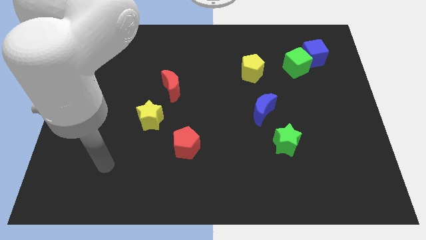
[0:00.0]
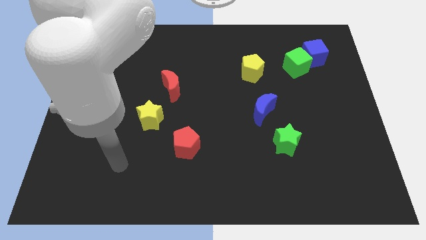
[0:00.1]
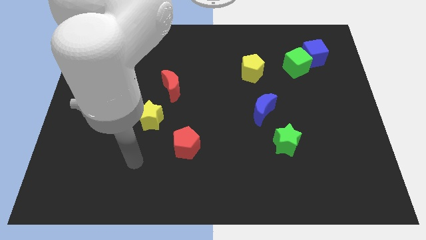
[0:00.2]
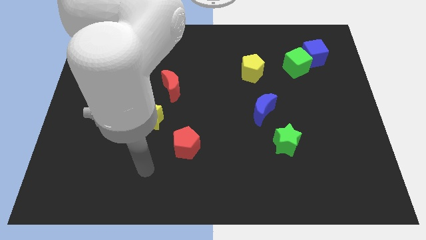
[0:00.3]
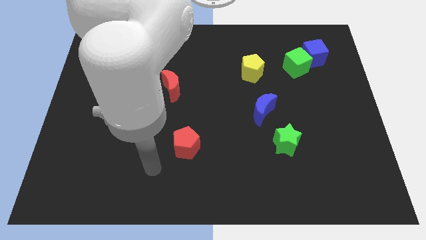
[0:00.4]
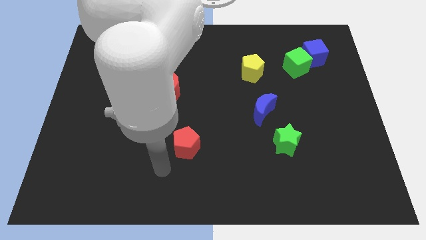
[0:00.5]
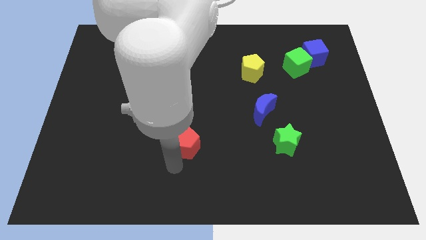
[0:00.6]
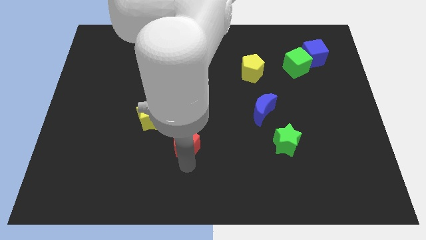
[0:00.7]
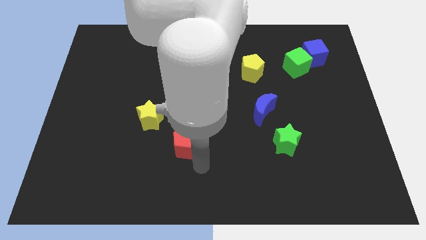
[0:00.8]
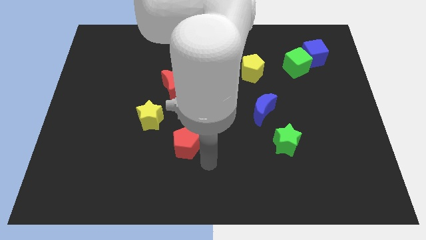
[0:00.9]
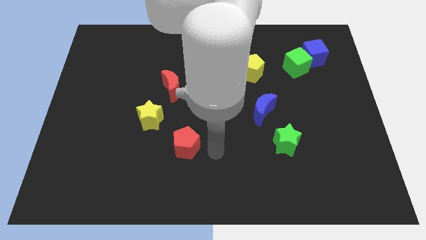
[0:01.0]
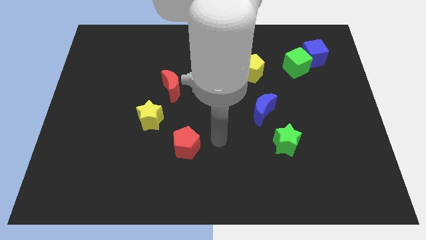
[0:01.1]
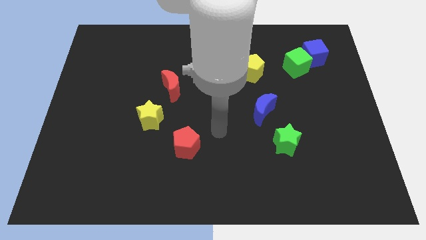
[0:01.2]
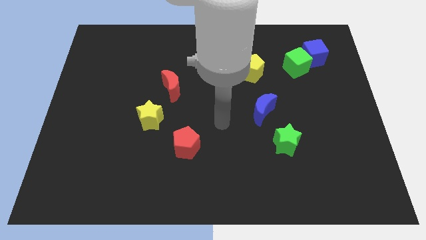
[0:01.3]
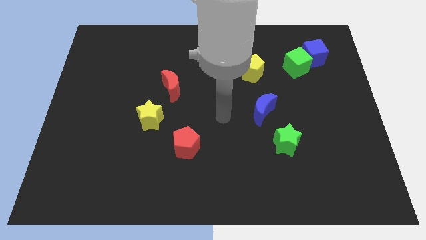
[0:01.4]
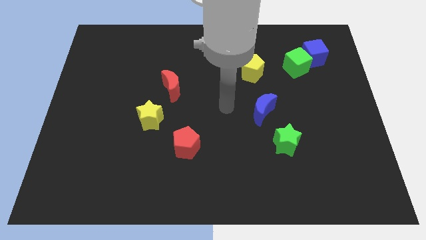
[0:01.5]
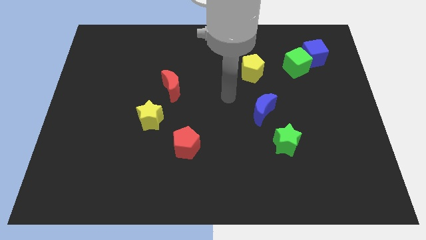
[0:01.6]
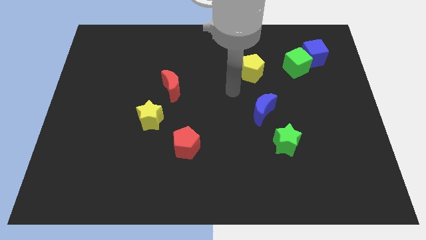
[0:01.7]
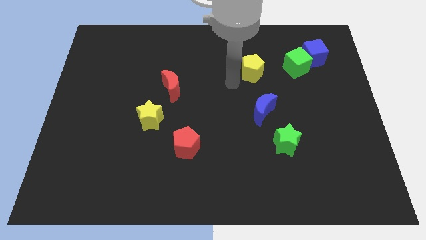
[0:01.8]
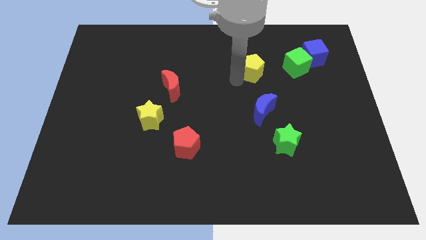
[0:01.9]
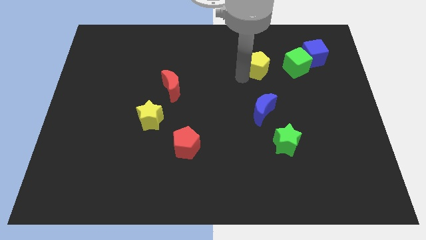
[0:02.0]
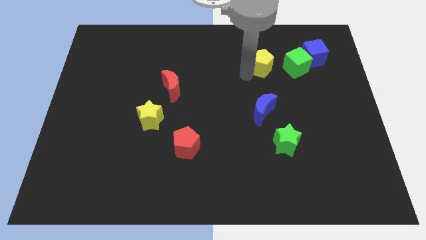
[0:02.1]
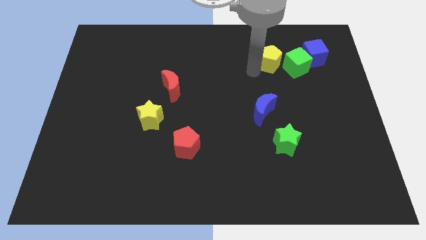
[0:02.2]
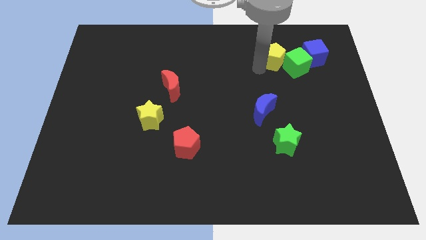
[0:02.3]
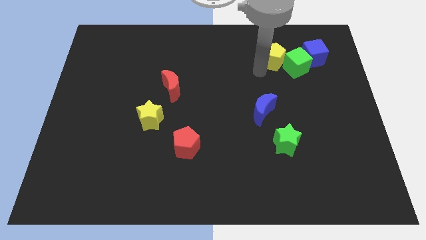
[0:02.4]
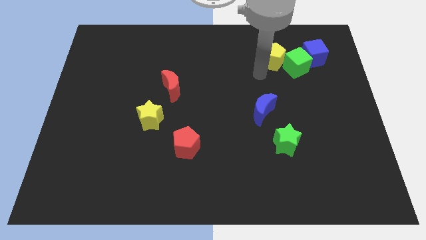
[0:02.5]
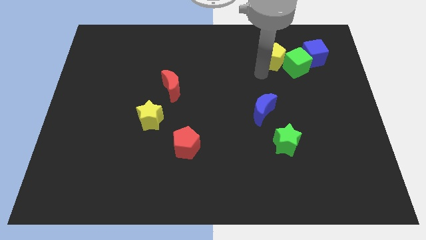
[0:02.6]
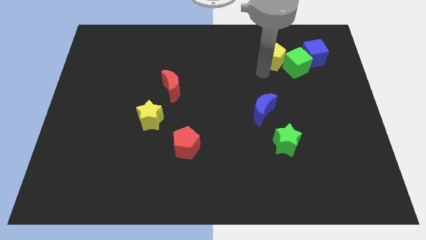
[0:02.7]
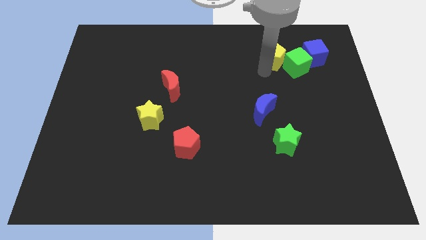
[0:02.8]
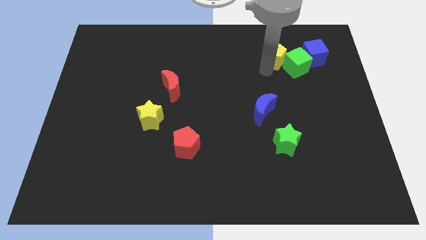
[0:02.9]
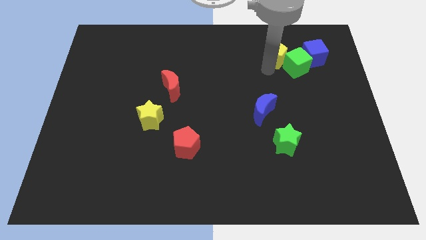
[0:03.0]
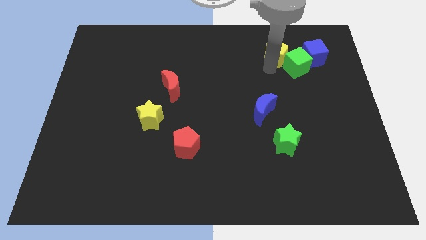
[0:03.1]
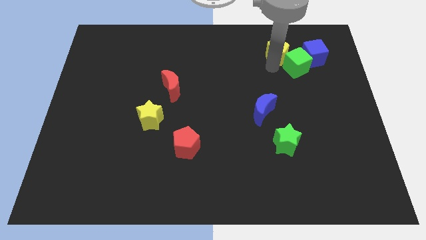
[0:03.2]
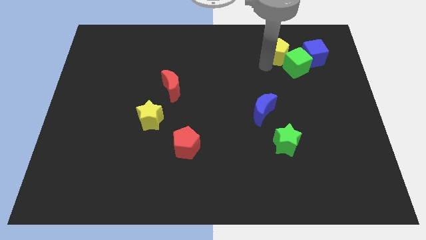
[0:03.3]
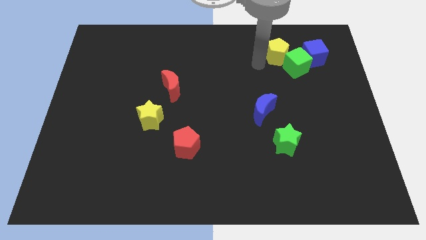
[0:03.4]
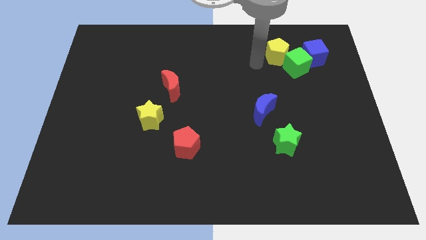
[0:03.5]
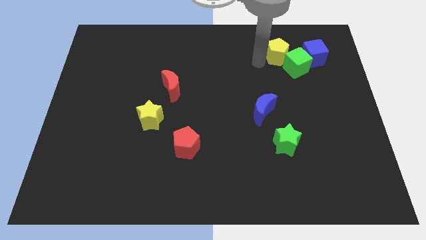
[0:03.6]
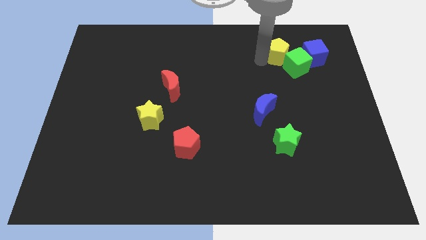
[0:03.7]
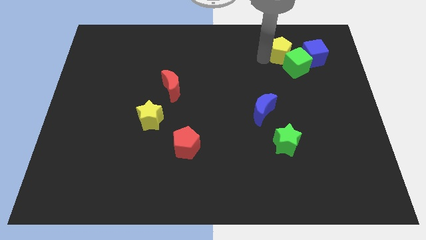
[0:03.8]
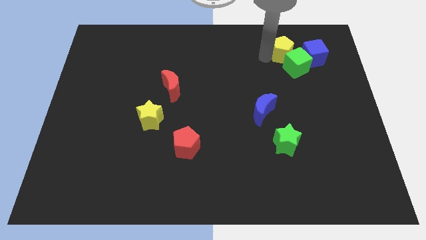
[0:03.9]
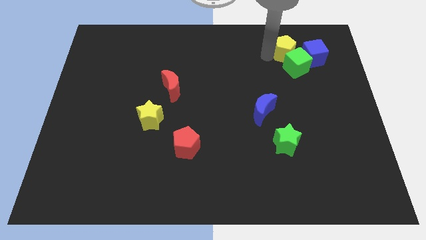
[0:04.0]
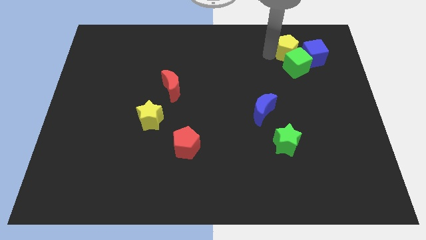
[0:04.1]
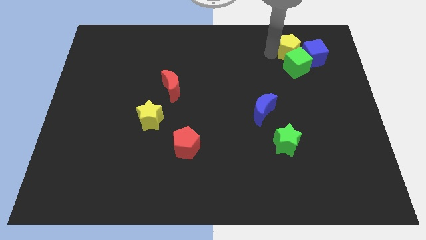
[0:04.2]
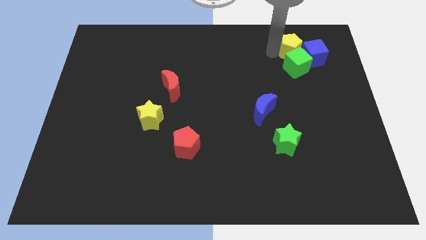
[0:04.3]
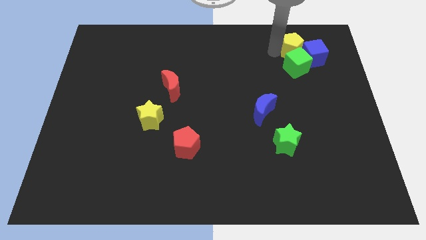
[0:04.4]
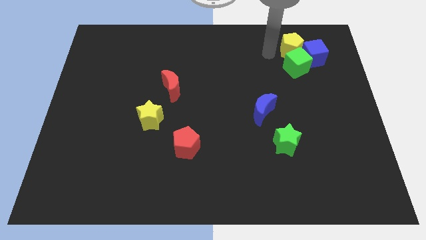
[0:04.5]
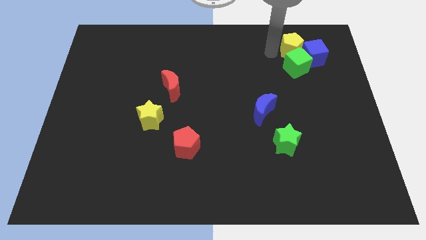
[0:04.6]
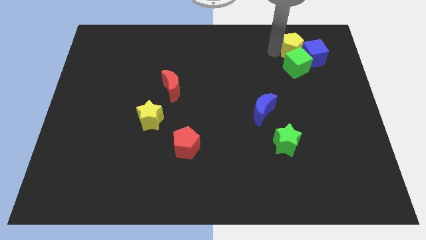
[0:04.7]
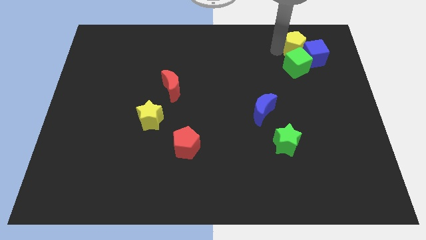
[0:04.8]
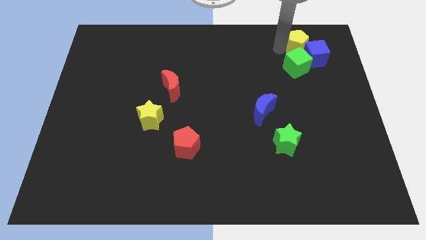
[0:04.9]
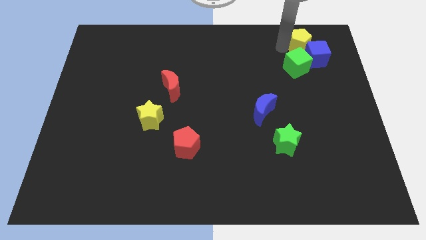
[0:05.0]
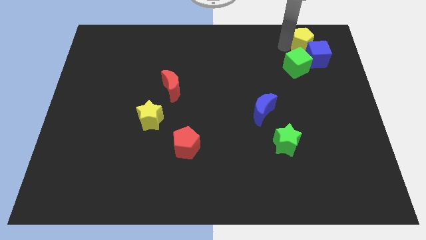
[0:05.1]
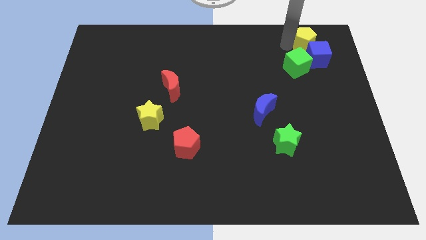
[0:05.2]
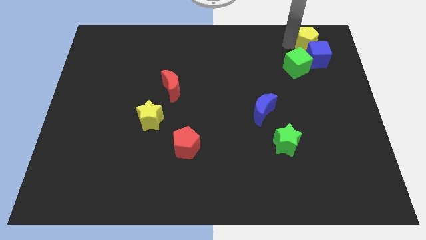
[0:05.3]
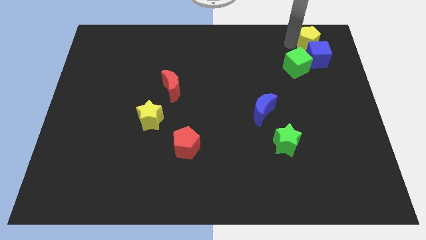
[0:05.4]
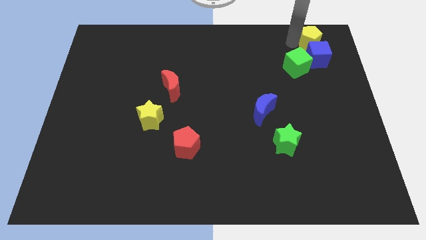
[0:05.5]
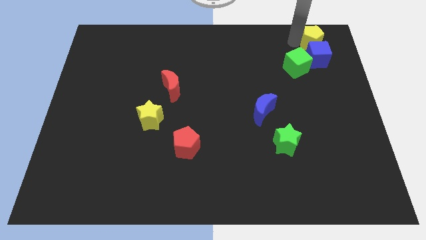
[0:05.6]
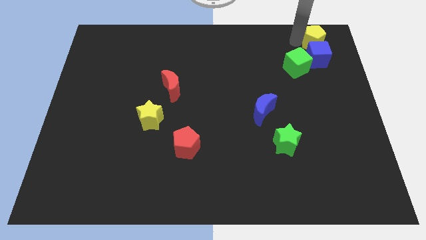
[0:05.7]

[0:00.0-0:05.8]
put the yellow pentagon to the top right

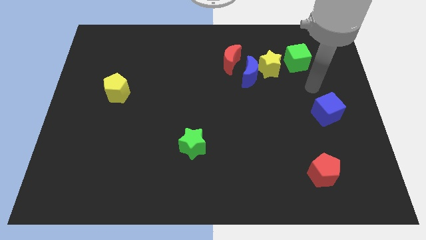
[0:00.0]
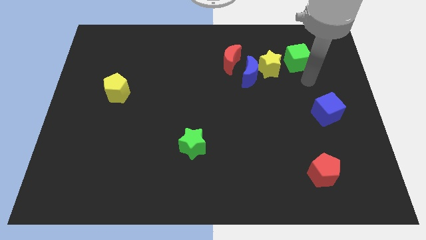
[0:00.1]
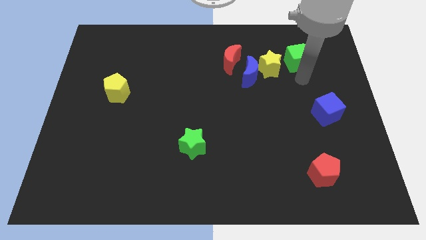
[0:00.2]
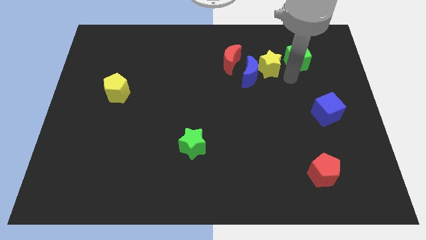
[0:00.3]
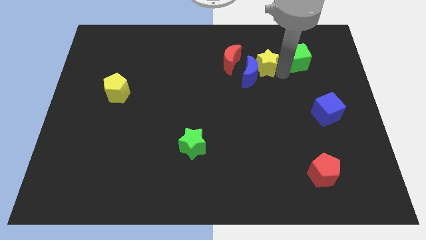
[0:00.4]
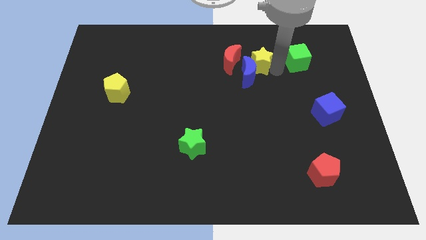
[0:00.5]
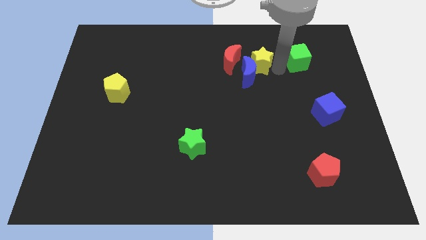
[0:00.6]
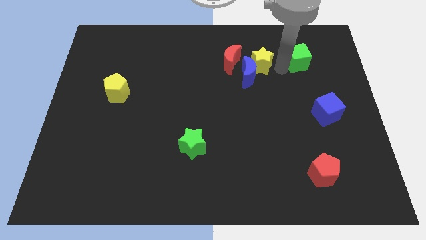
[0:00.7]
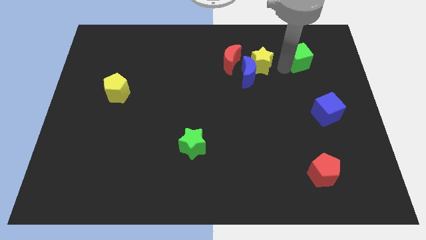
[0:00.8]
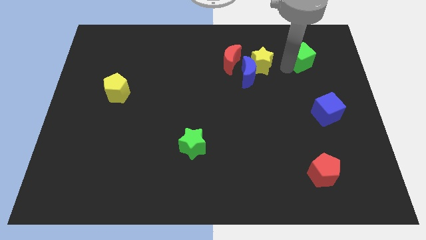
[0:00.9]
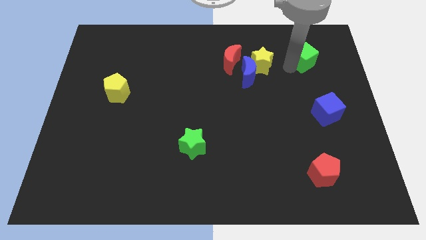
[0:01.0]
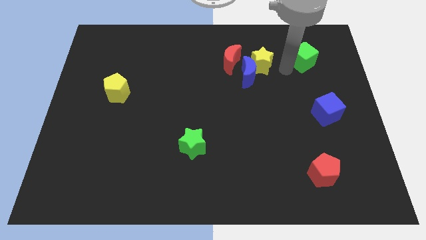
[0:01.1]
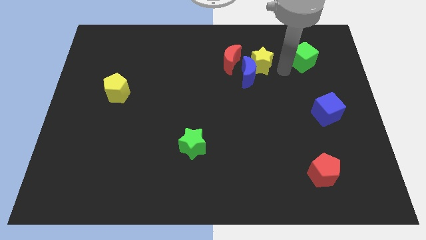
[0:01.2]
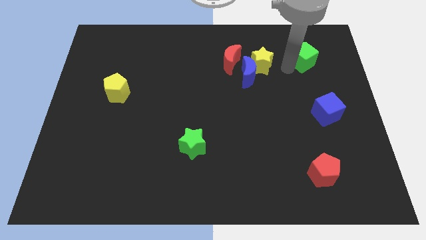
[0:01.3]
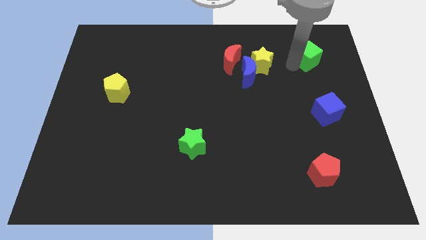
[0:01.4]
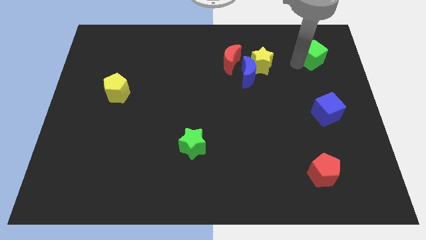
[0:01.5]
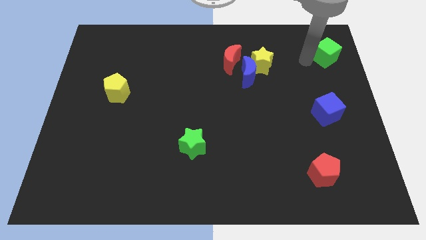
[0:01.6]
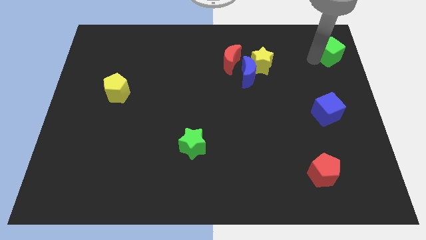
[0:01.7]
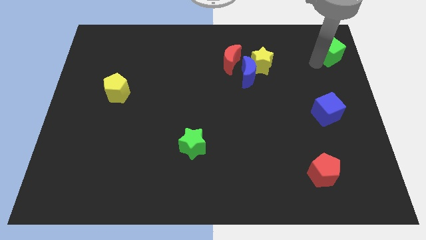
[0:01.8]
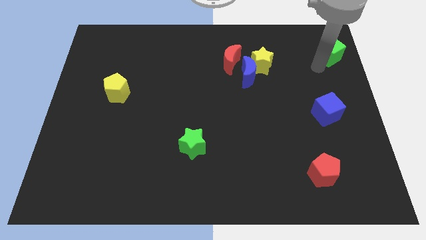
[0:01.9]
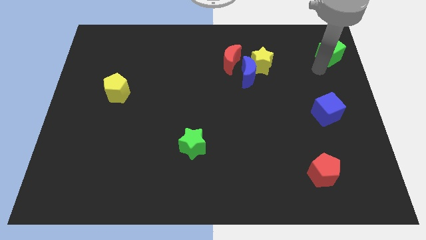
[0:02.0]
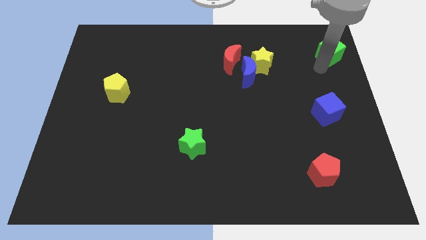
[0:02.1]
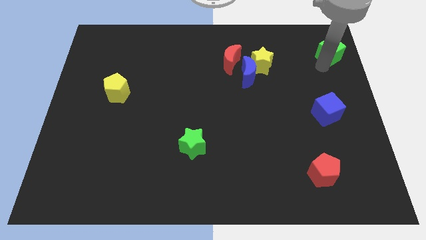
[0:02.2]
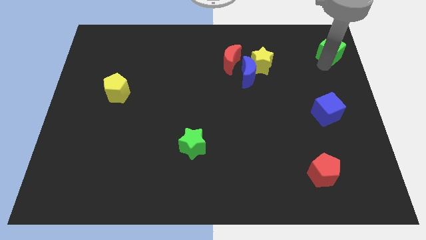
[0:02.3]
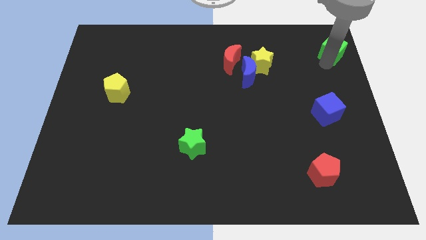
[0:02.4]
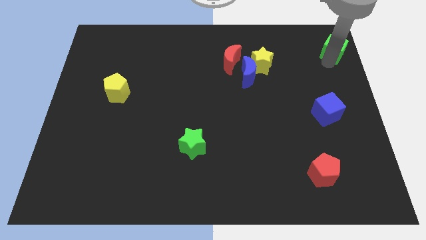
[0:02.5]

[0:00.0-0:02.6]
slide the green cube to the top right of the board
